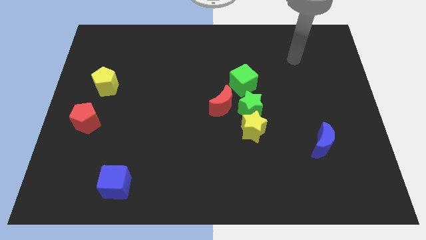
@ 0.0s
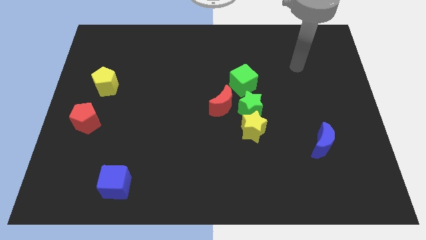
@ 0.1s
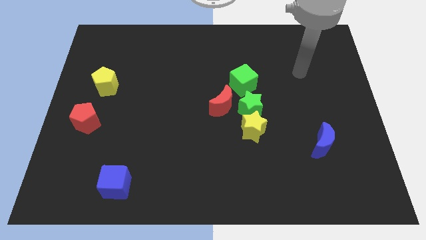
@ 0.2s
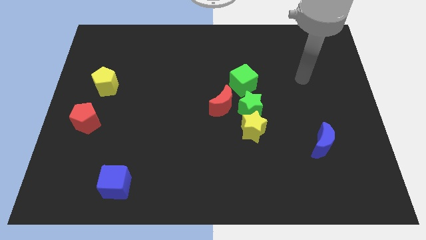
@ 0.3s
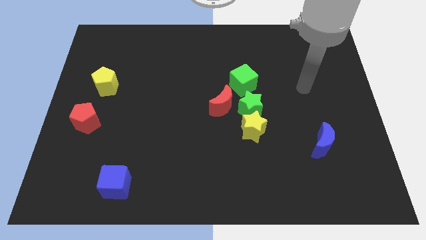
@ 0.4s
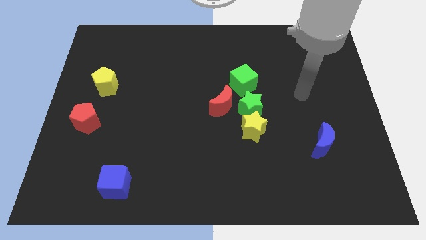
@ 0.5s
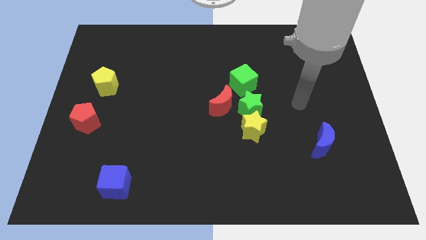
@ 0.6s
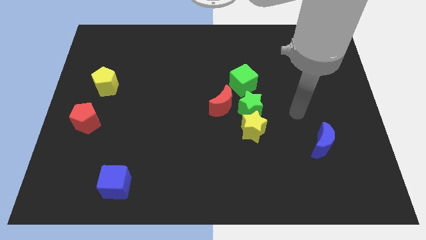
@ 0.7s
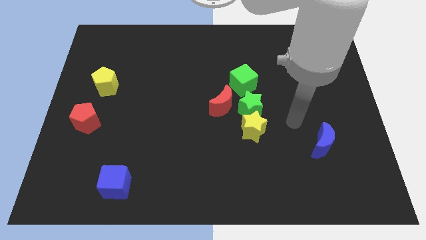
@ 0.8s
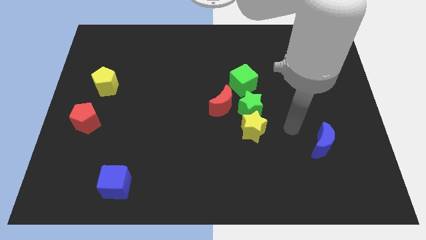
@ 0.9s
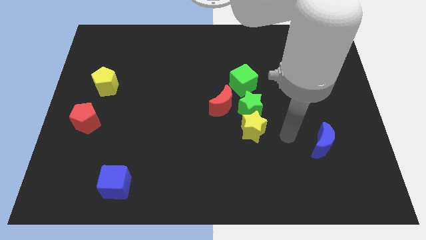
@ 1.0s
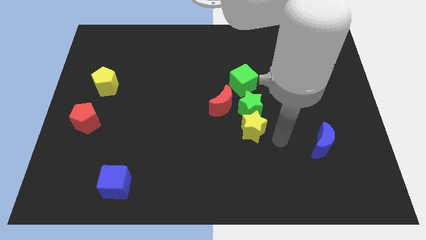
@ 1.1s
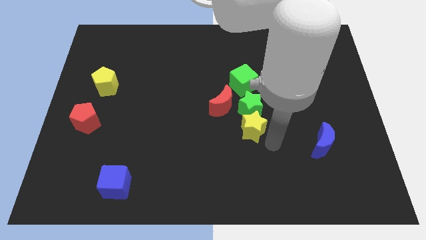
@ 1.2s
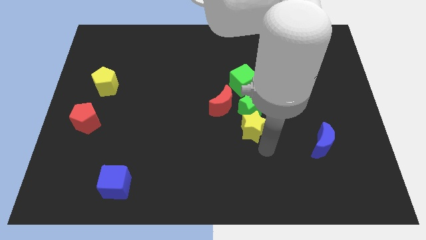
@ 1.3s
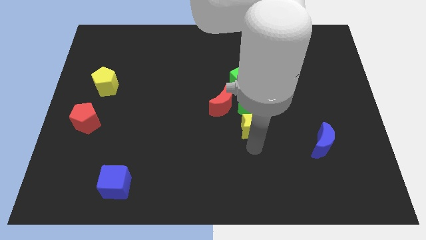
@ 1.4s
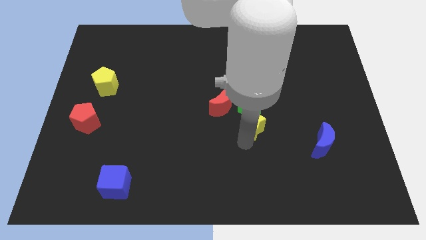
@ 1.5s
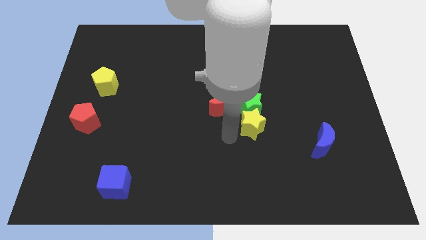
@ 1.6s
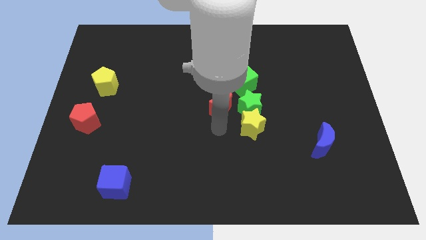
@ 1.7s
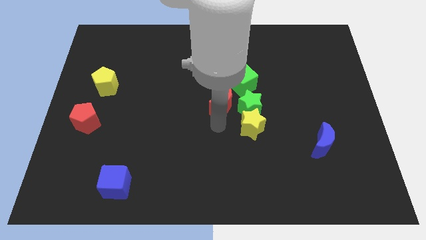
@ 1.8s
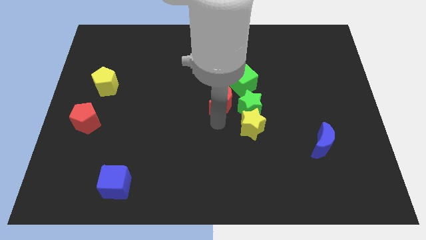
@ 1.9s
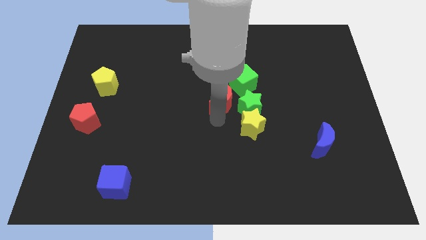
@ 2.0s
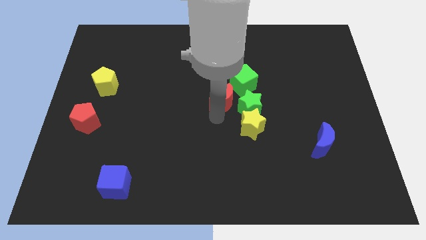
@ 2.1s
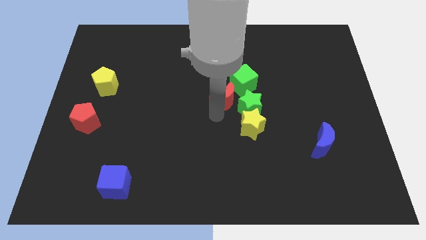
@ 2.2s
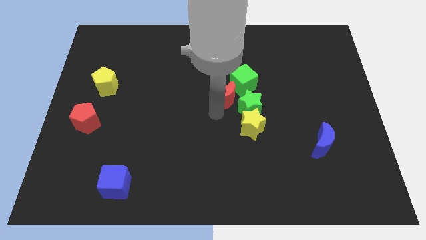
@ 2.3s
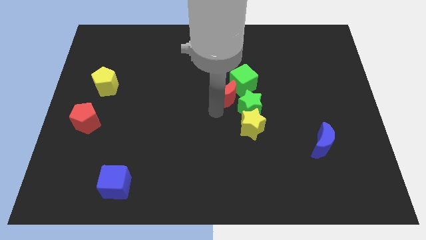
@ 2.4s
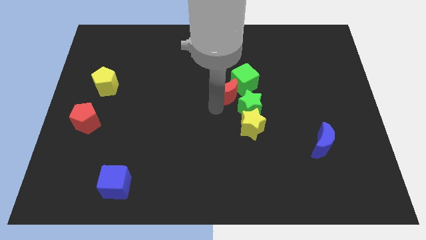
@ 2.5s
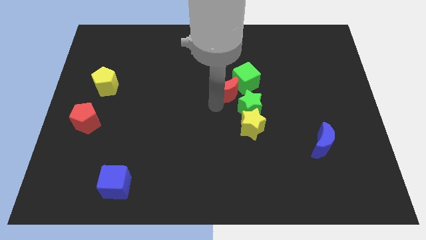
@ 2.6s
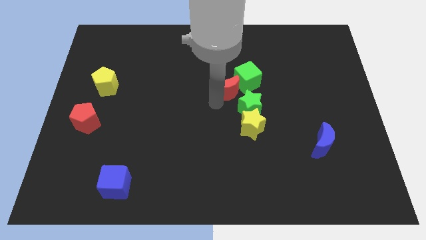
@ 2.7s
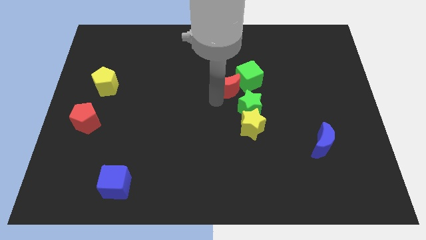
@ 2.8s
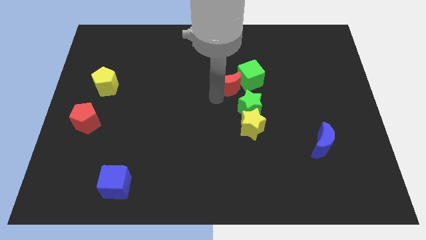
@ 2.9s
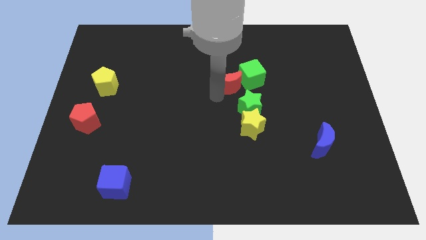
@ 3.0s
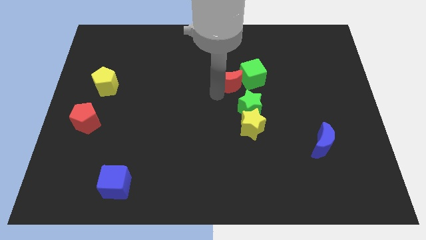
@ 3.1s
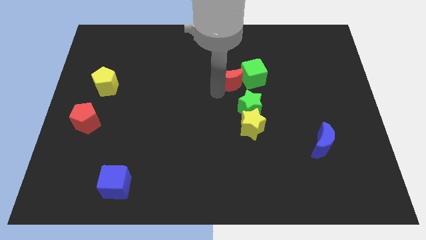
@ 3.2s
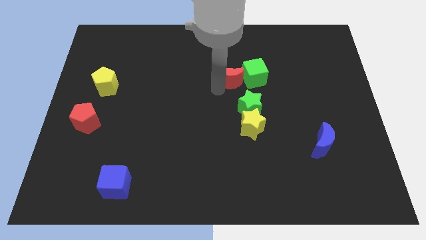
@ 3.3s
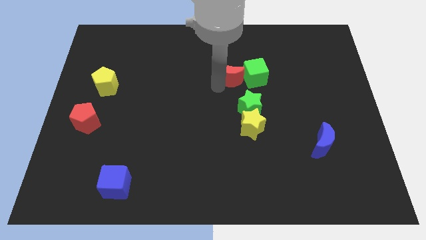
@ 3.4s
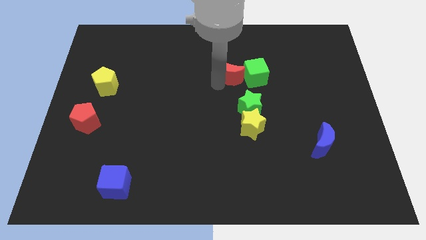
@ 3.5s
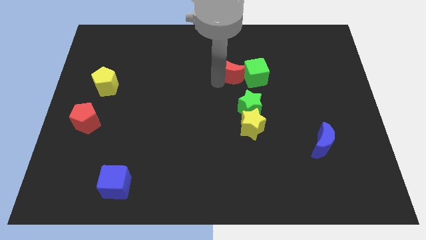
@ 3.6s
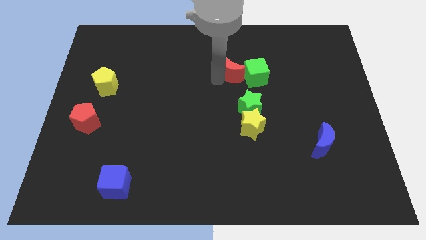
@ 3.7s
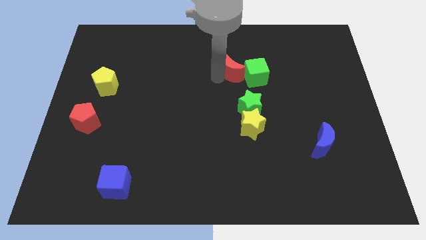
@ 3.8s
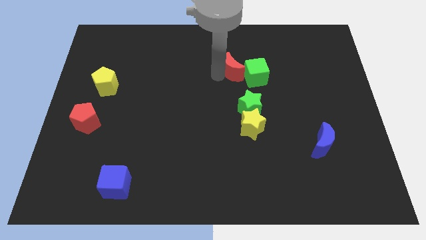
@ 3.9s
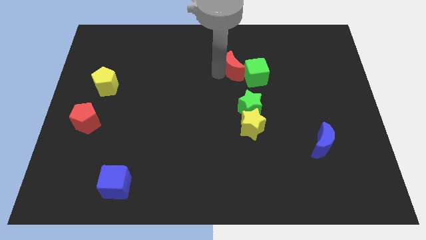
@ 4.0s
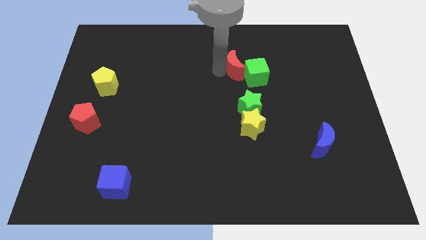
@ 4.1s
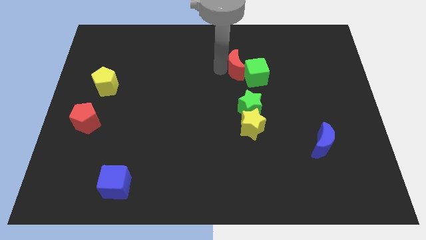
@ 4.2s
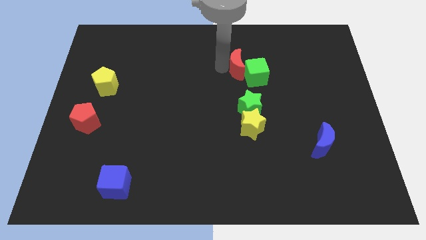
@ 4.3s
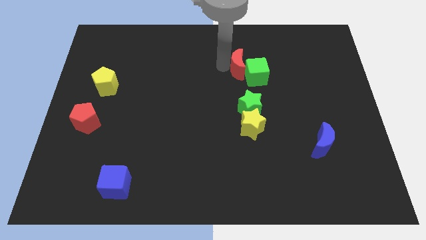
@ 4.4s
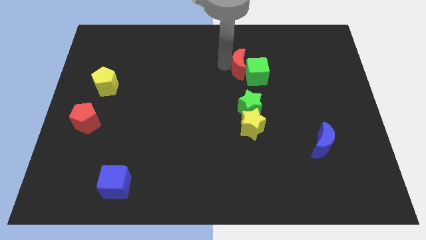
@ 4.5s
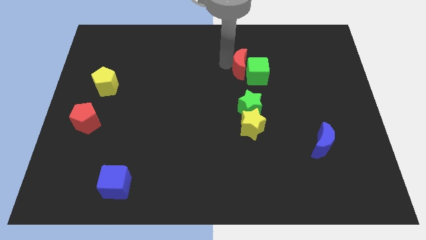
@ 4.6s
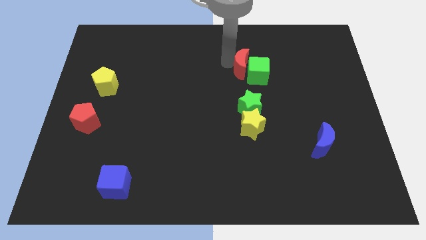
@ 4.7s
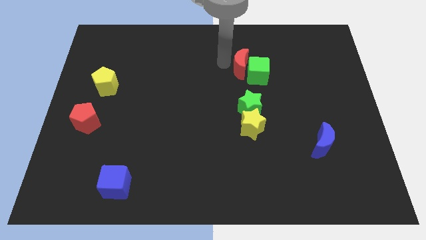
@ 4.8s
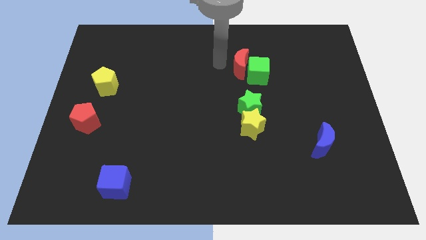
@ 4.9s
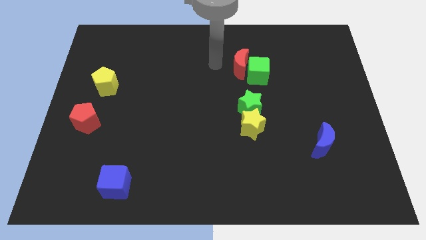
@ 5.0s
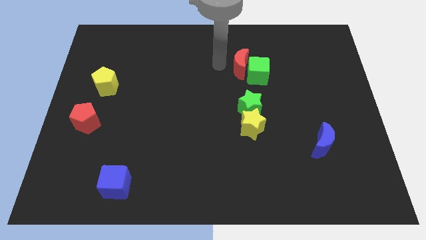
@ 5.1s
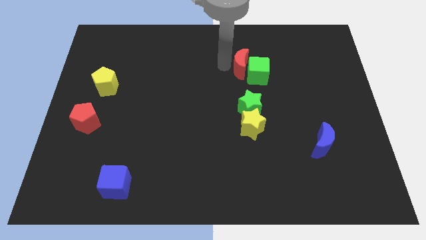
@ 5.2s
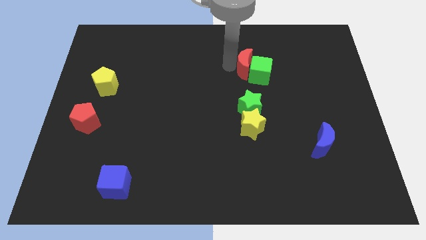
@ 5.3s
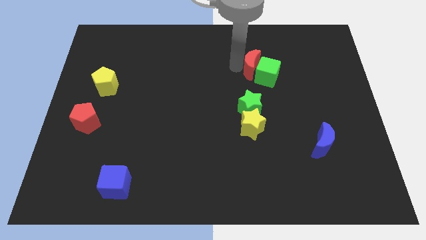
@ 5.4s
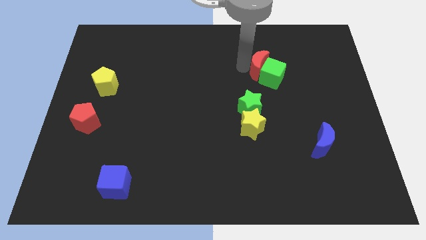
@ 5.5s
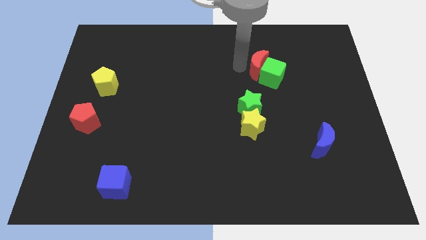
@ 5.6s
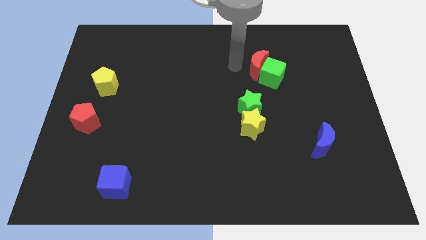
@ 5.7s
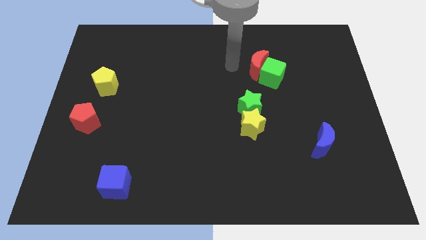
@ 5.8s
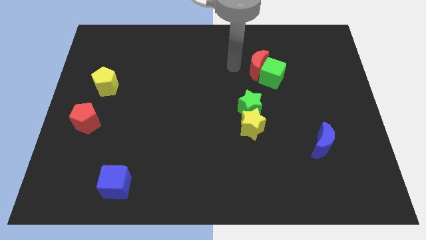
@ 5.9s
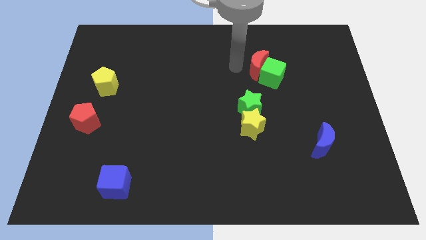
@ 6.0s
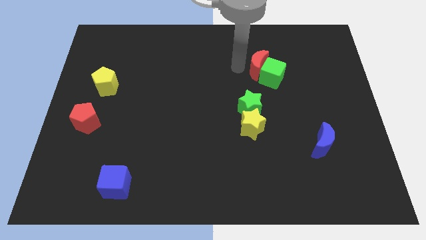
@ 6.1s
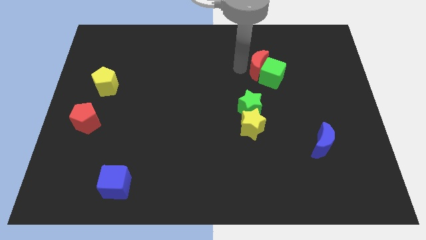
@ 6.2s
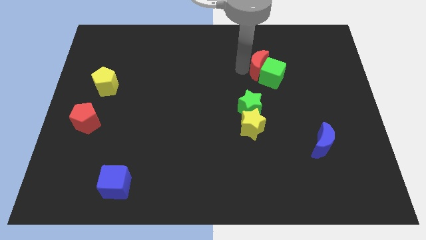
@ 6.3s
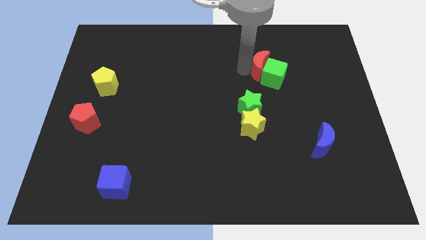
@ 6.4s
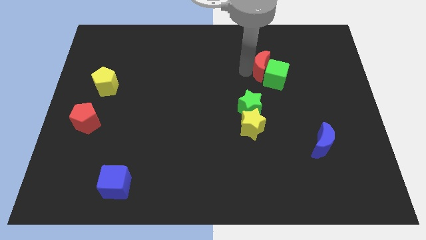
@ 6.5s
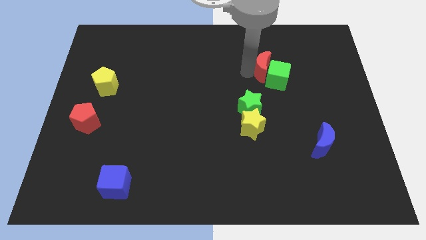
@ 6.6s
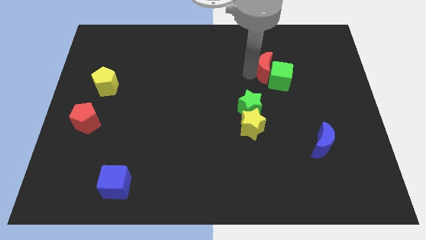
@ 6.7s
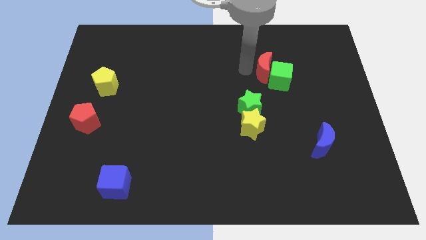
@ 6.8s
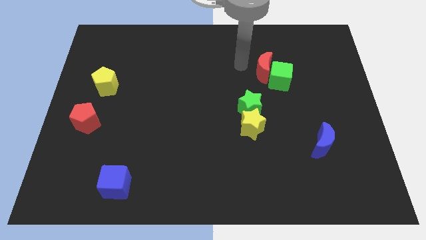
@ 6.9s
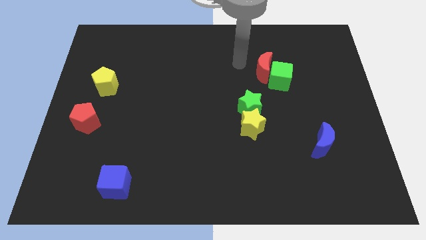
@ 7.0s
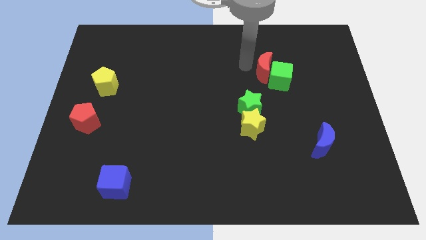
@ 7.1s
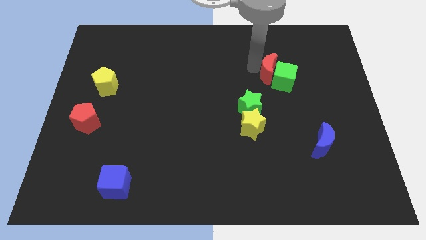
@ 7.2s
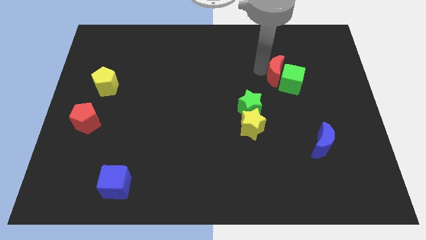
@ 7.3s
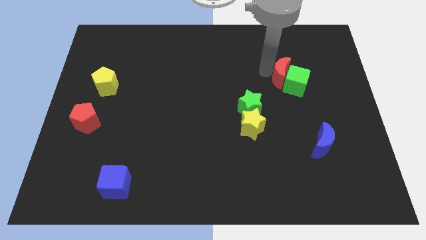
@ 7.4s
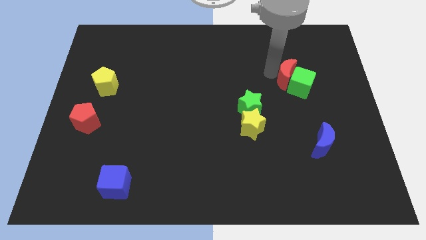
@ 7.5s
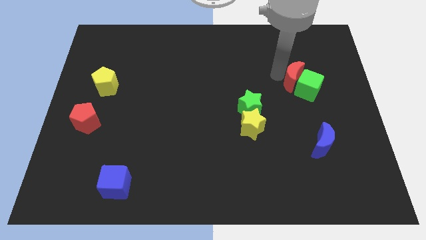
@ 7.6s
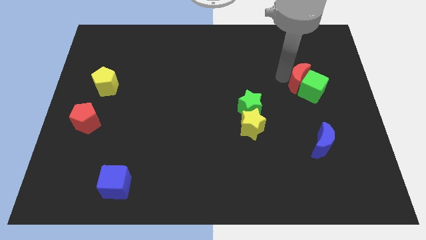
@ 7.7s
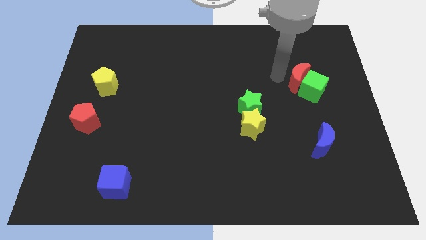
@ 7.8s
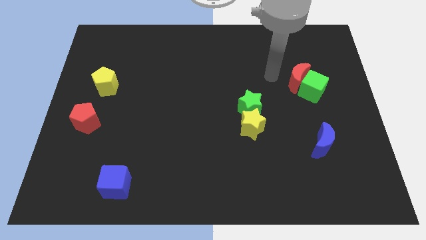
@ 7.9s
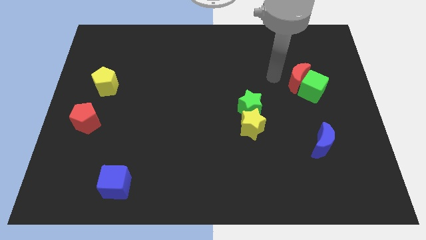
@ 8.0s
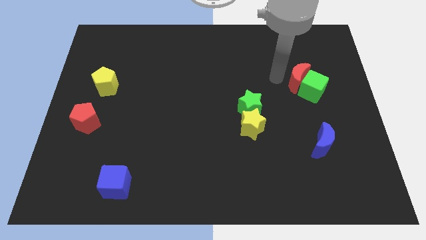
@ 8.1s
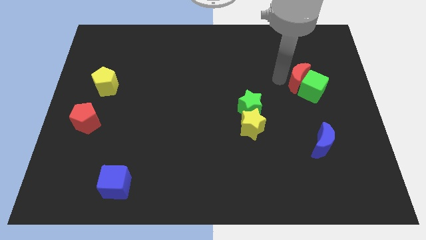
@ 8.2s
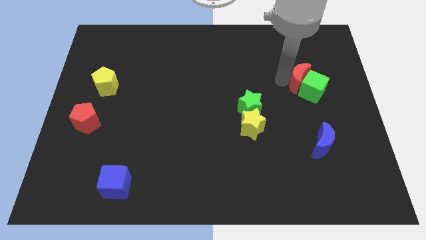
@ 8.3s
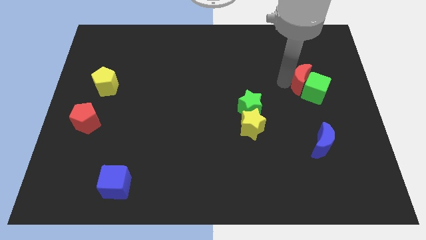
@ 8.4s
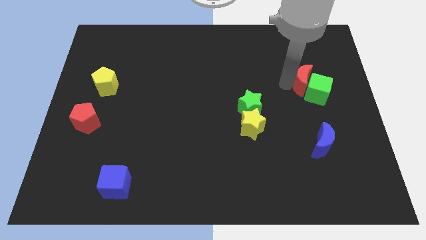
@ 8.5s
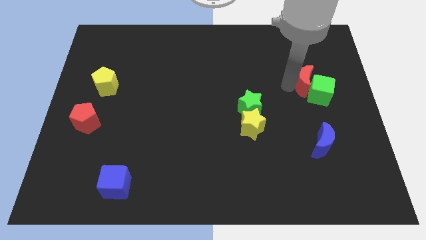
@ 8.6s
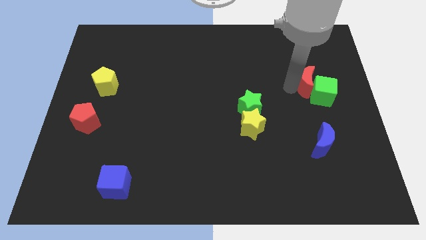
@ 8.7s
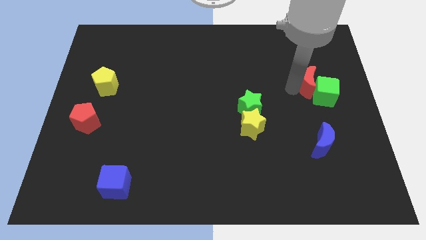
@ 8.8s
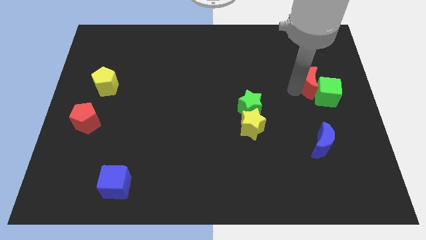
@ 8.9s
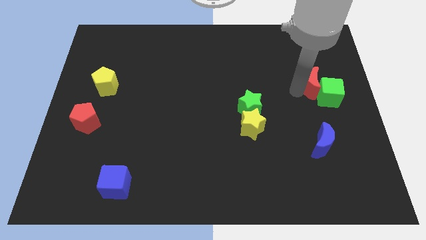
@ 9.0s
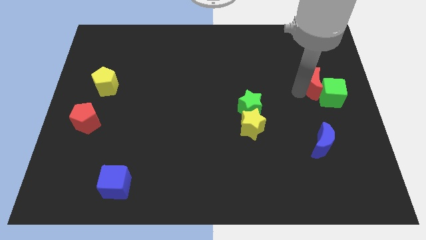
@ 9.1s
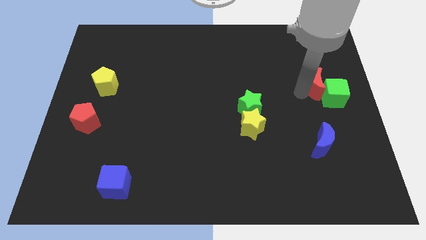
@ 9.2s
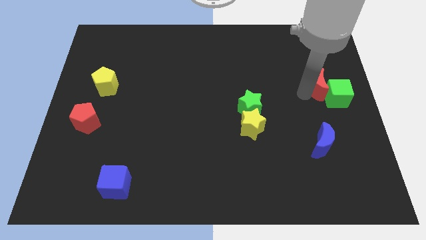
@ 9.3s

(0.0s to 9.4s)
push the red moon to the right side of the board
